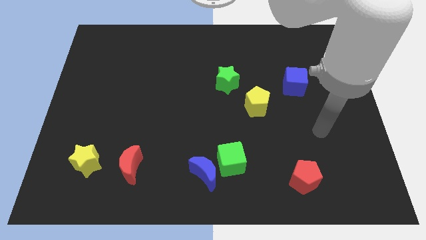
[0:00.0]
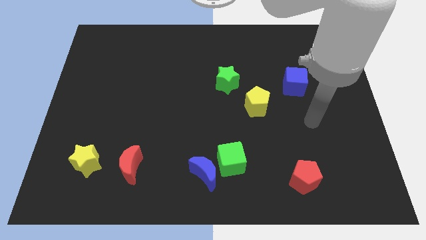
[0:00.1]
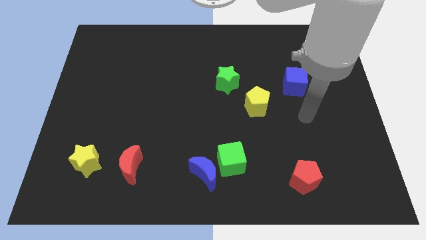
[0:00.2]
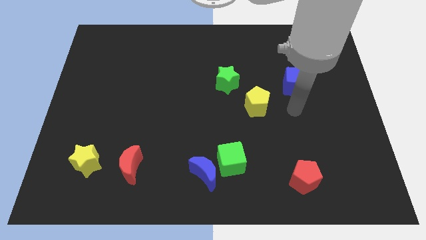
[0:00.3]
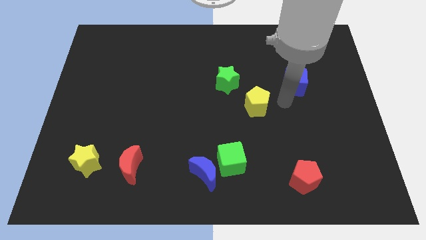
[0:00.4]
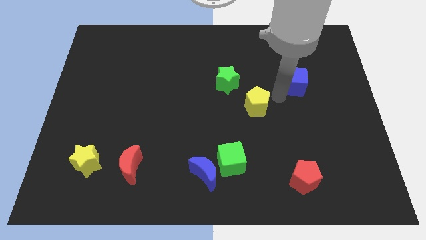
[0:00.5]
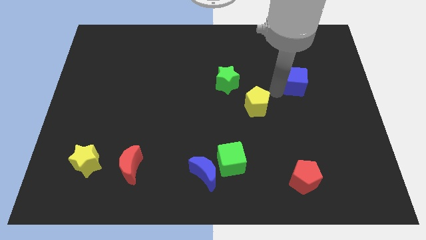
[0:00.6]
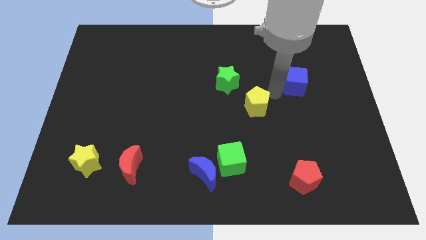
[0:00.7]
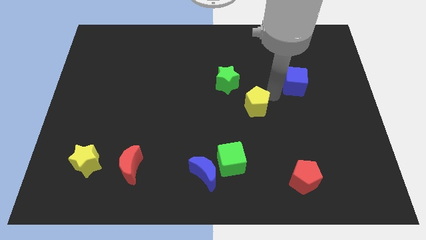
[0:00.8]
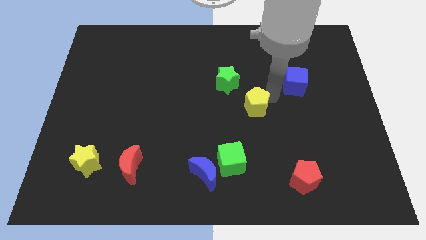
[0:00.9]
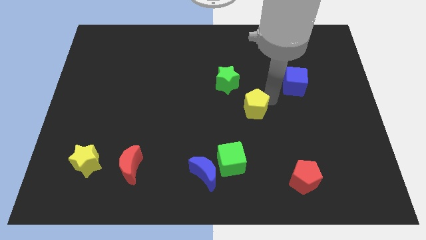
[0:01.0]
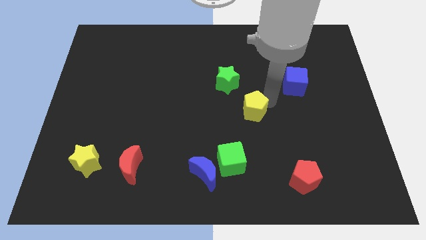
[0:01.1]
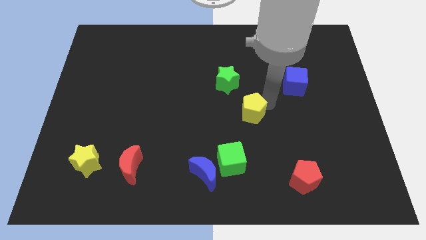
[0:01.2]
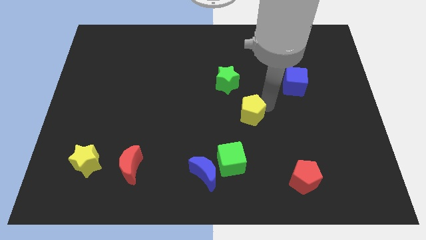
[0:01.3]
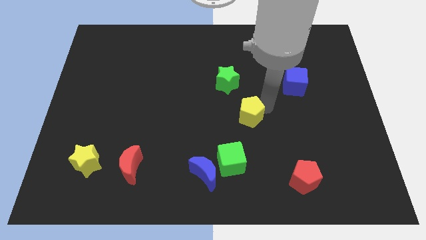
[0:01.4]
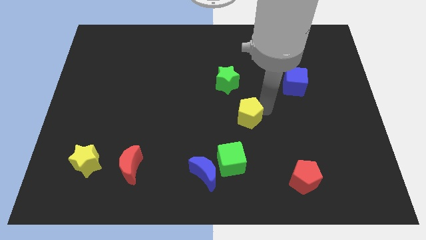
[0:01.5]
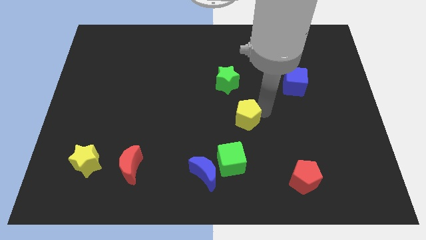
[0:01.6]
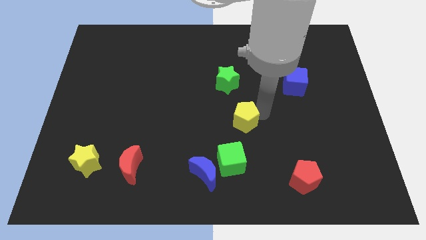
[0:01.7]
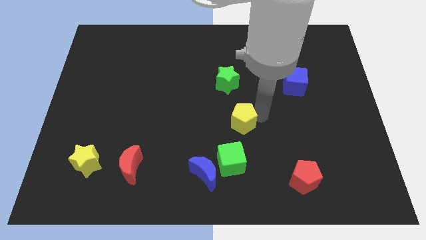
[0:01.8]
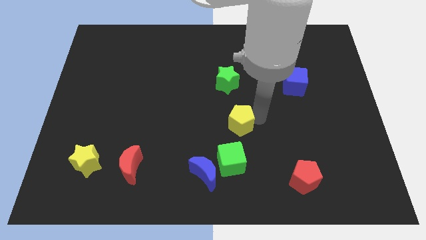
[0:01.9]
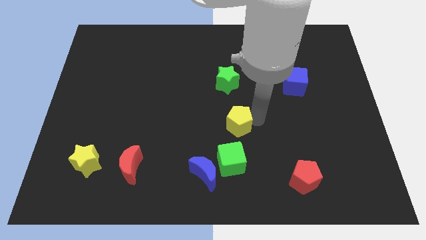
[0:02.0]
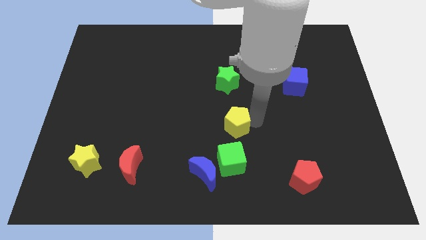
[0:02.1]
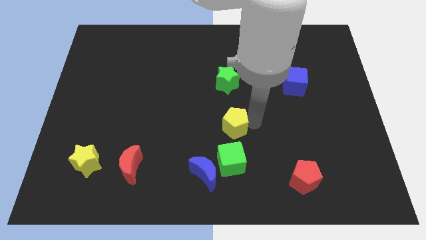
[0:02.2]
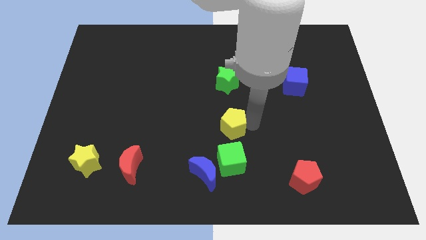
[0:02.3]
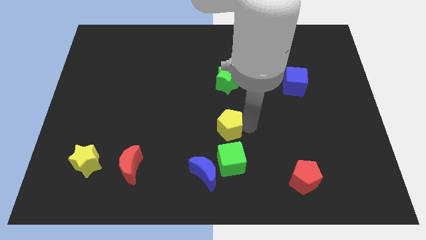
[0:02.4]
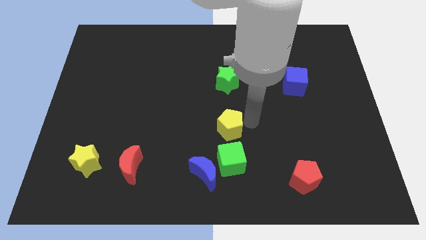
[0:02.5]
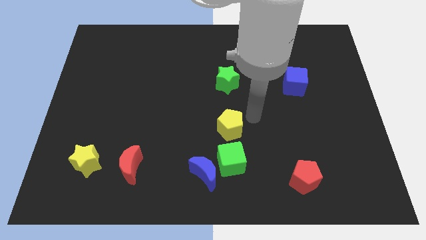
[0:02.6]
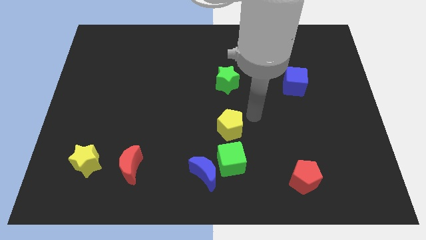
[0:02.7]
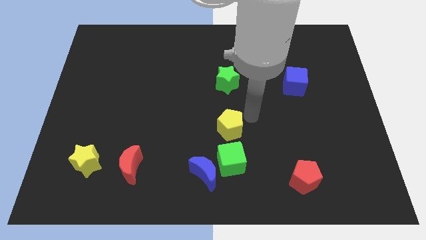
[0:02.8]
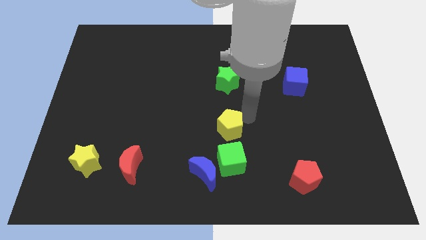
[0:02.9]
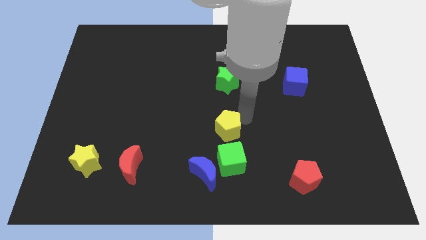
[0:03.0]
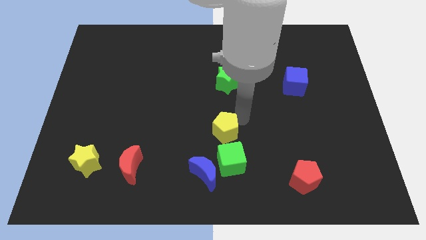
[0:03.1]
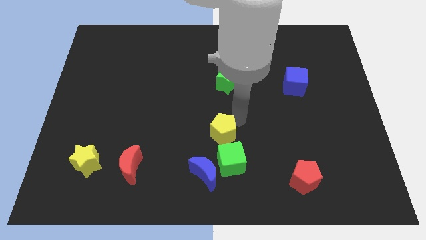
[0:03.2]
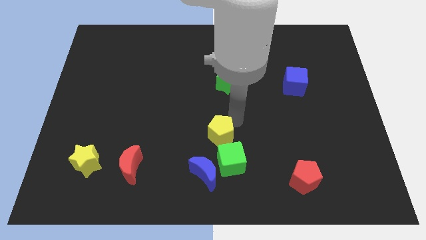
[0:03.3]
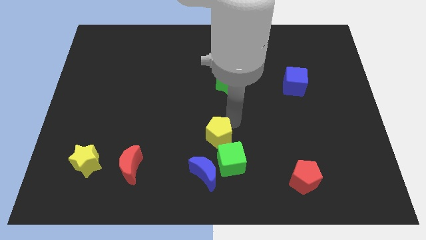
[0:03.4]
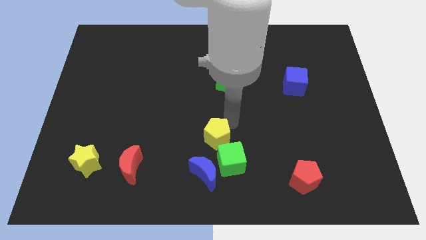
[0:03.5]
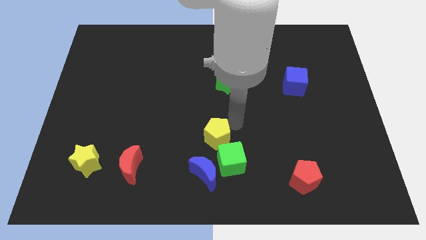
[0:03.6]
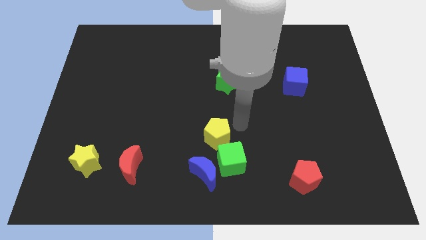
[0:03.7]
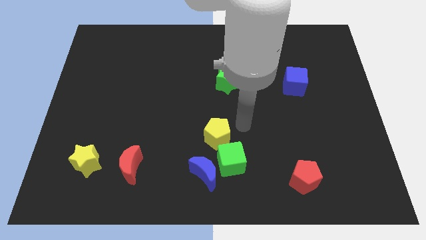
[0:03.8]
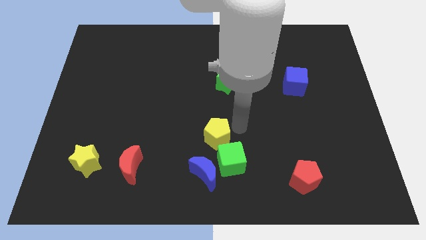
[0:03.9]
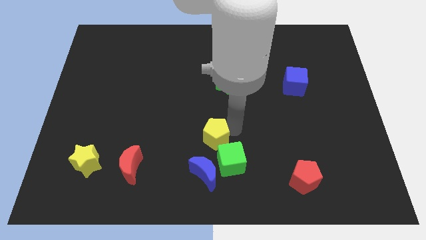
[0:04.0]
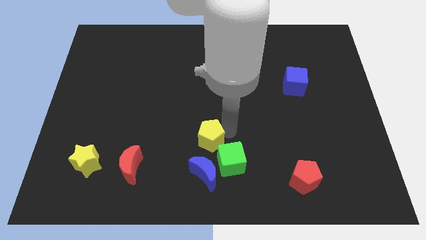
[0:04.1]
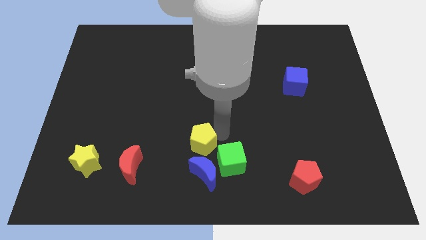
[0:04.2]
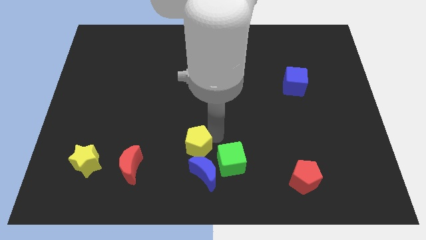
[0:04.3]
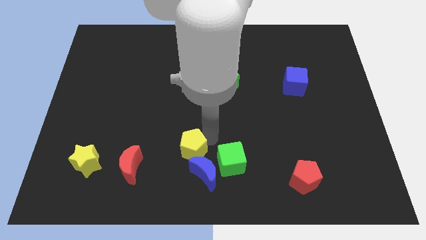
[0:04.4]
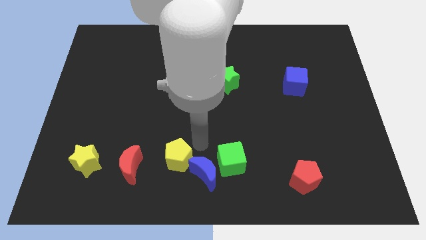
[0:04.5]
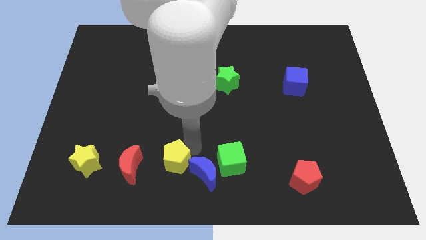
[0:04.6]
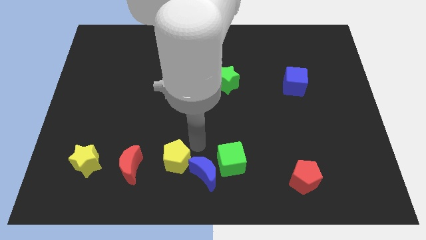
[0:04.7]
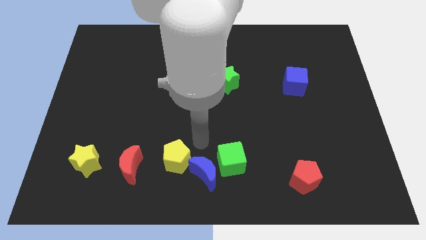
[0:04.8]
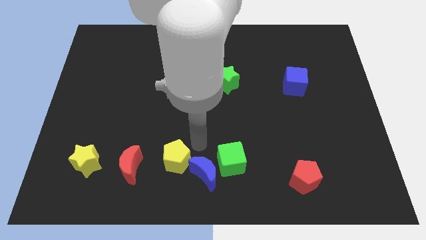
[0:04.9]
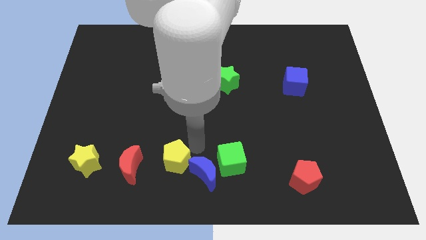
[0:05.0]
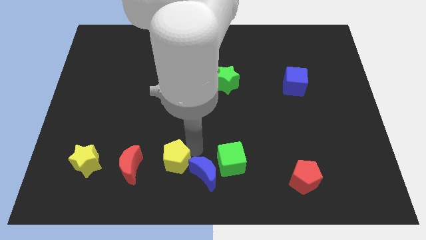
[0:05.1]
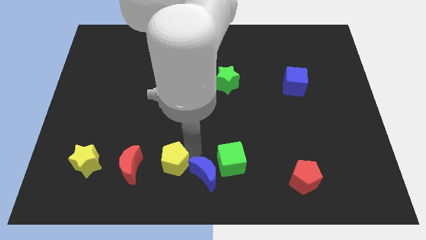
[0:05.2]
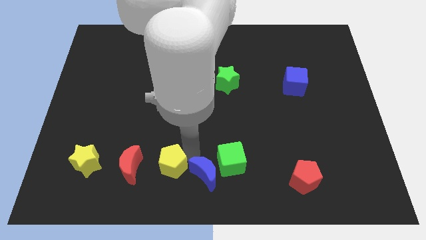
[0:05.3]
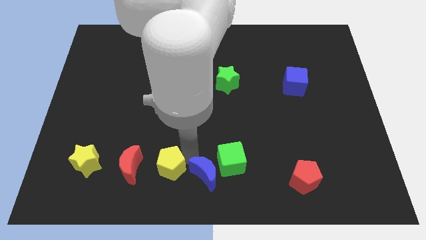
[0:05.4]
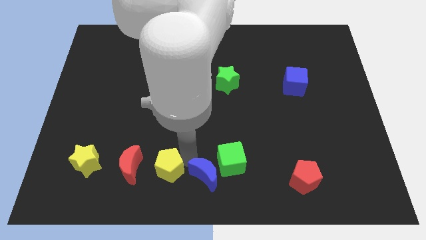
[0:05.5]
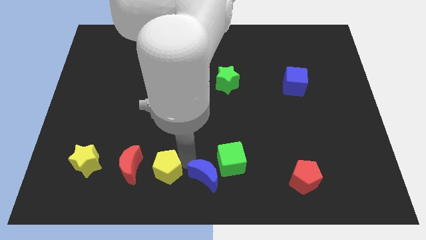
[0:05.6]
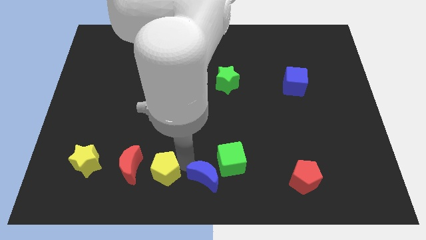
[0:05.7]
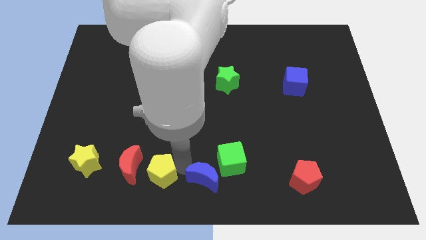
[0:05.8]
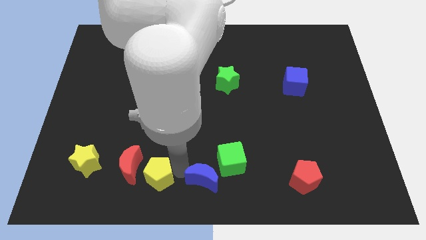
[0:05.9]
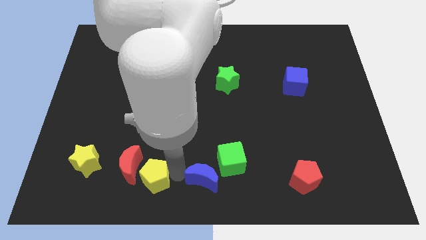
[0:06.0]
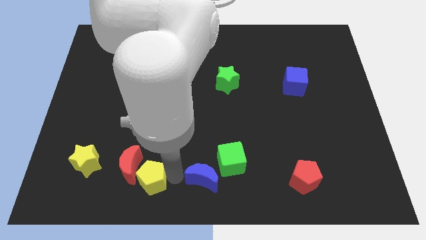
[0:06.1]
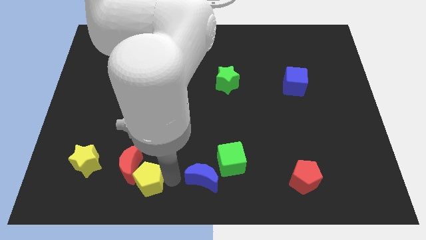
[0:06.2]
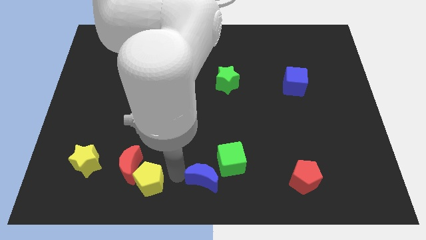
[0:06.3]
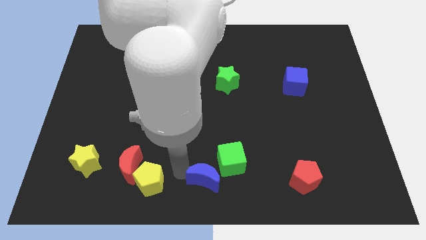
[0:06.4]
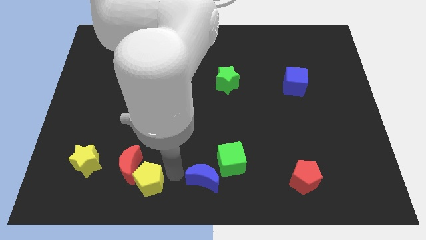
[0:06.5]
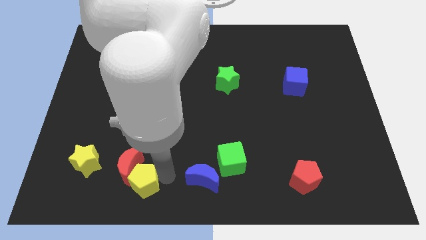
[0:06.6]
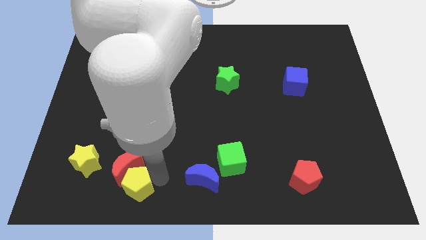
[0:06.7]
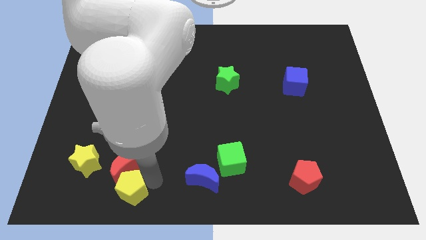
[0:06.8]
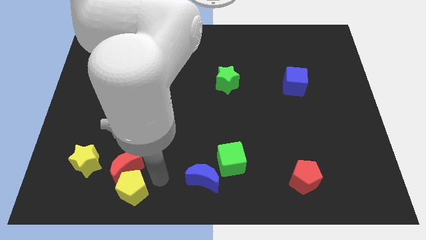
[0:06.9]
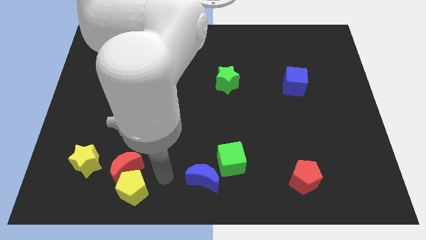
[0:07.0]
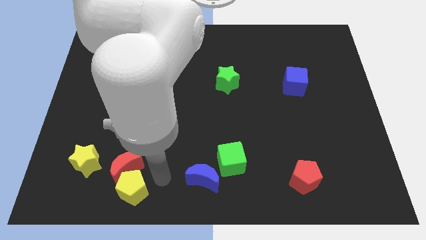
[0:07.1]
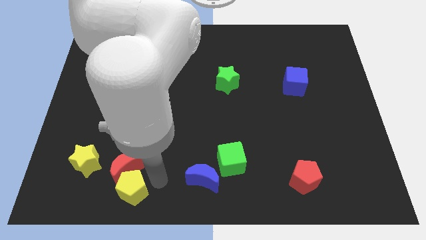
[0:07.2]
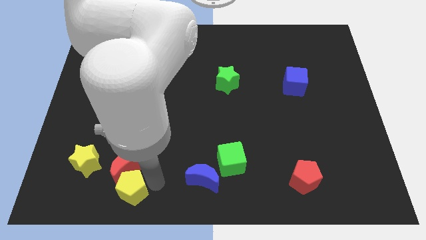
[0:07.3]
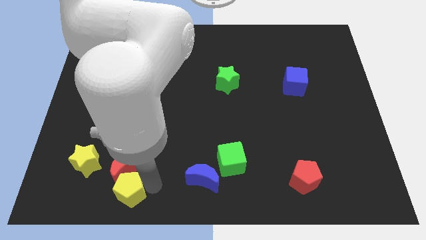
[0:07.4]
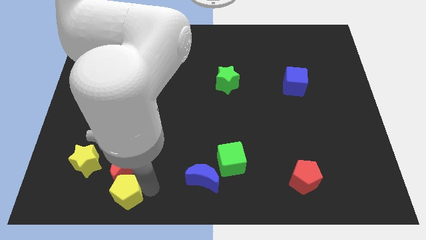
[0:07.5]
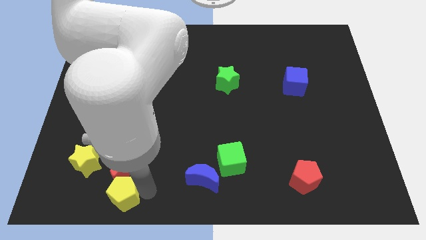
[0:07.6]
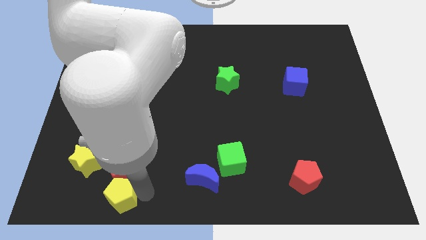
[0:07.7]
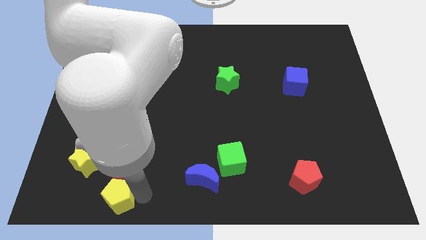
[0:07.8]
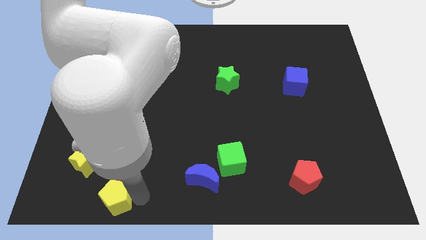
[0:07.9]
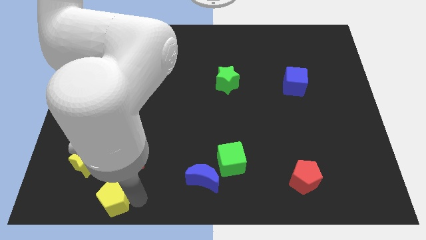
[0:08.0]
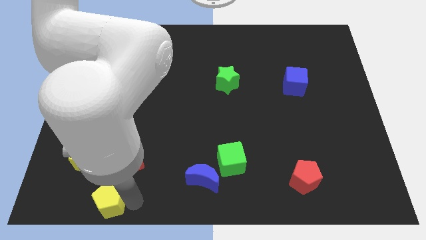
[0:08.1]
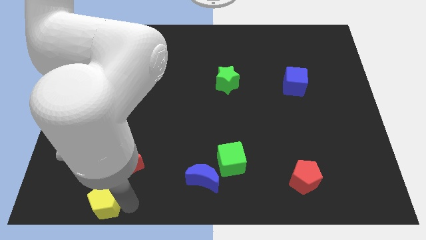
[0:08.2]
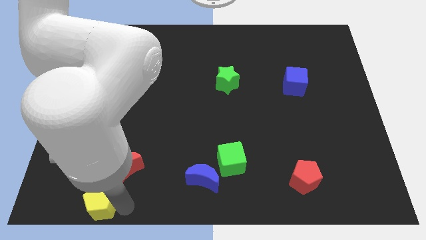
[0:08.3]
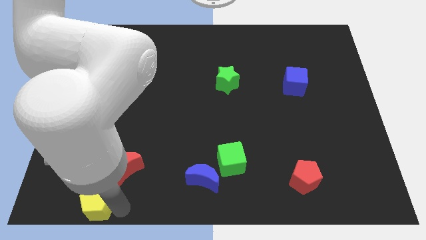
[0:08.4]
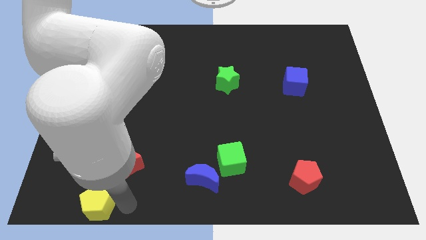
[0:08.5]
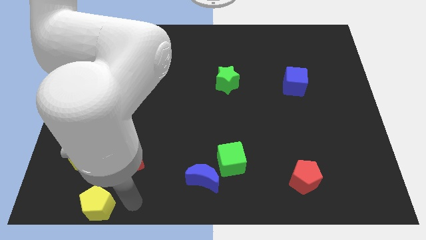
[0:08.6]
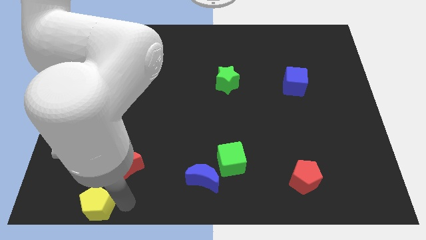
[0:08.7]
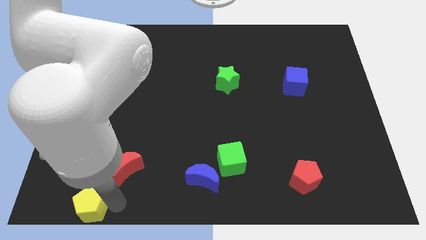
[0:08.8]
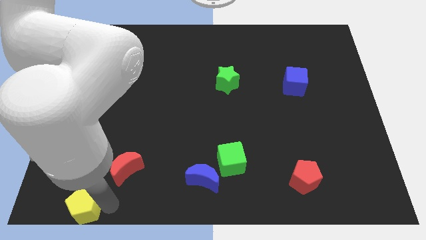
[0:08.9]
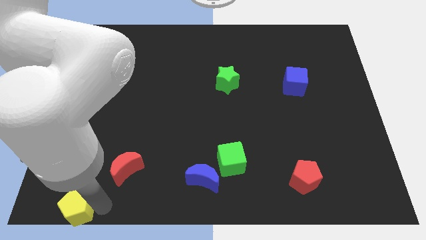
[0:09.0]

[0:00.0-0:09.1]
move the yellow pentagon to the bottom left
